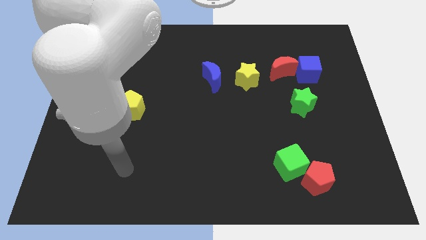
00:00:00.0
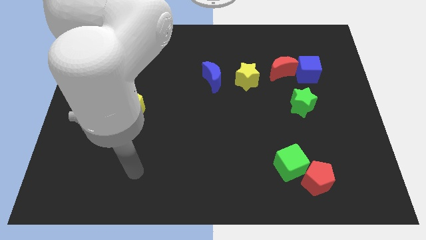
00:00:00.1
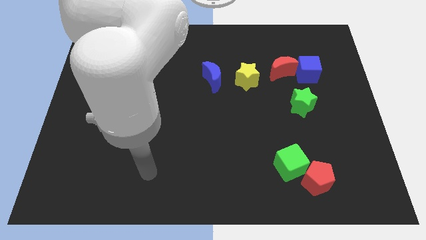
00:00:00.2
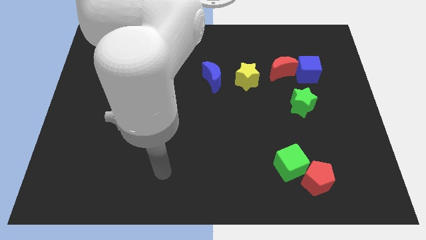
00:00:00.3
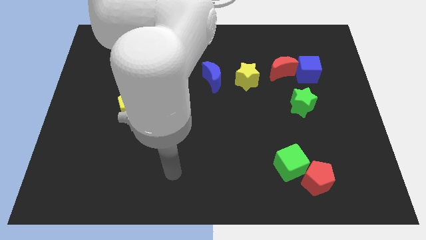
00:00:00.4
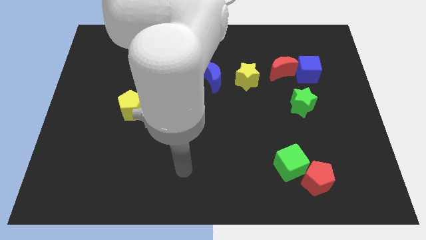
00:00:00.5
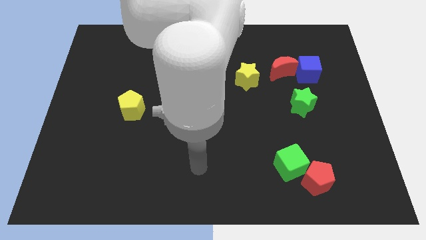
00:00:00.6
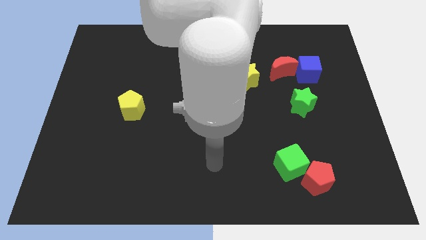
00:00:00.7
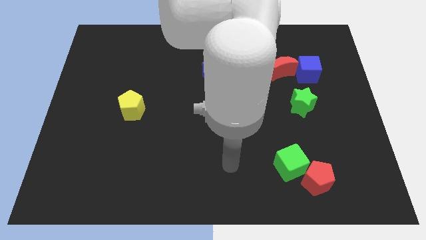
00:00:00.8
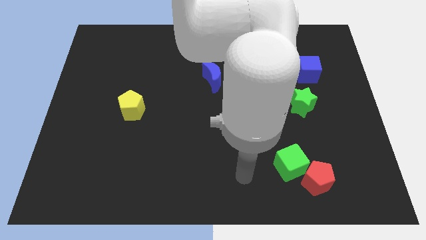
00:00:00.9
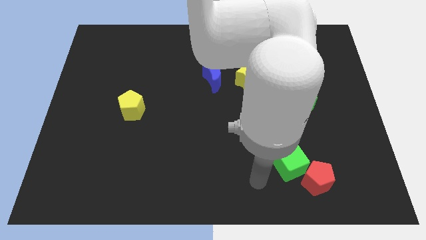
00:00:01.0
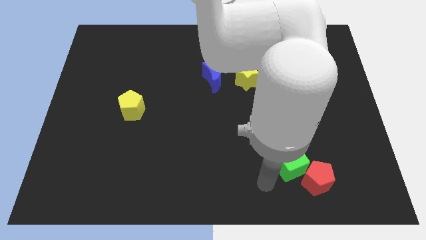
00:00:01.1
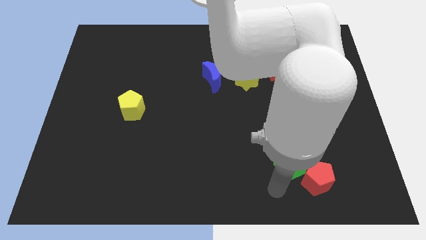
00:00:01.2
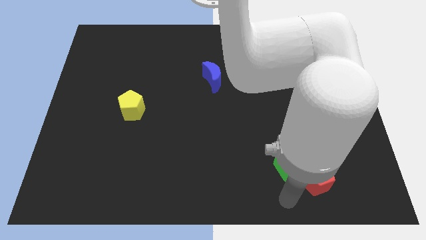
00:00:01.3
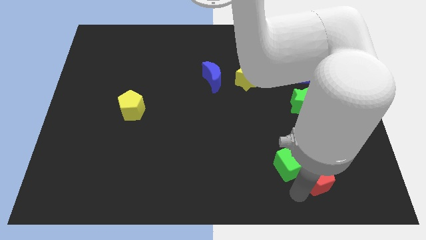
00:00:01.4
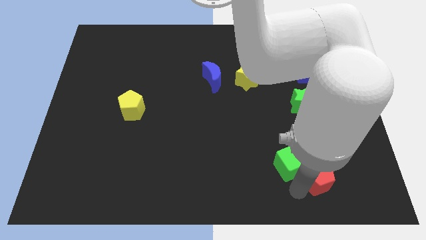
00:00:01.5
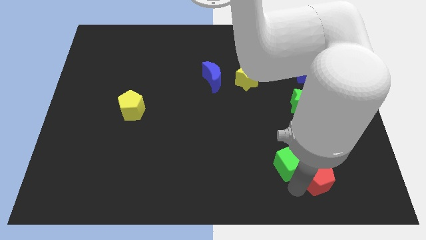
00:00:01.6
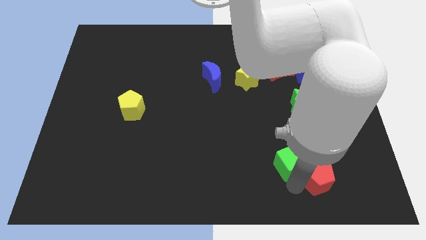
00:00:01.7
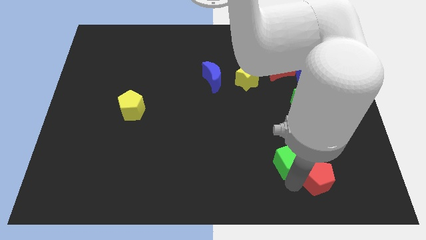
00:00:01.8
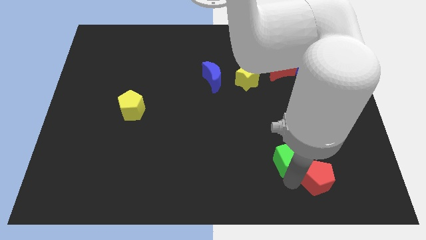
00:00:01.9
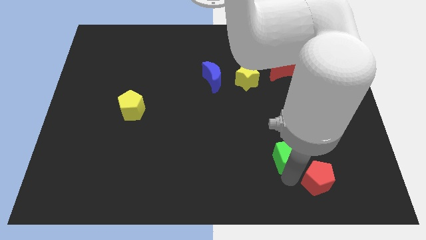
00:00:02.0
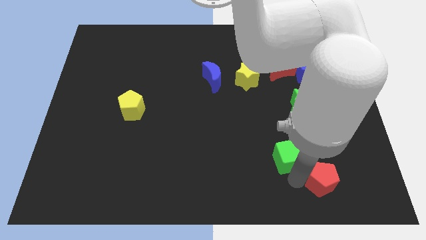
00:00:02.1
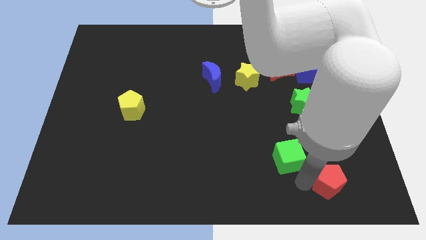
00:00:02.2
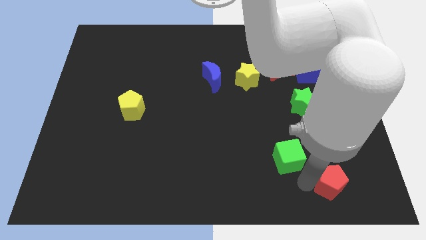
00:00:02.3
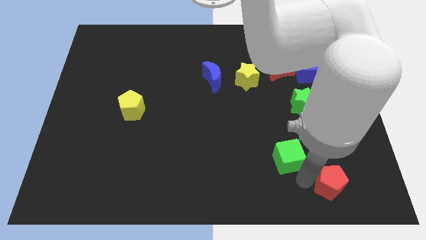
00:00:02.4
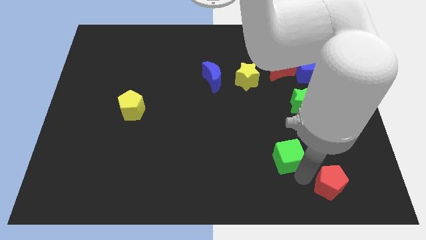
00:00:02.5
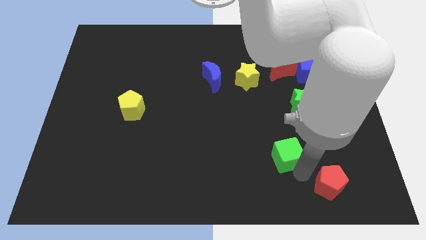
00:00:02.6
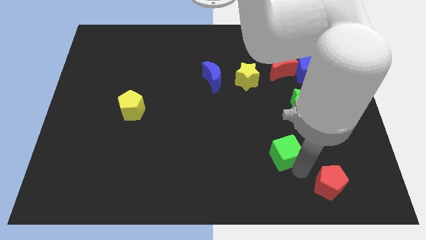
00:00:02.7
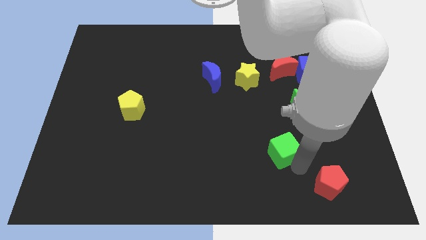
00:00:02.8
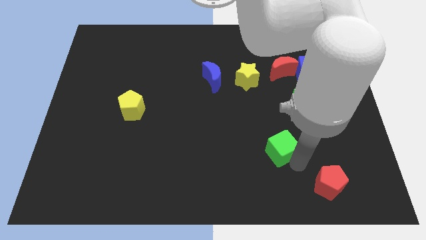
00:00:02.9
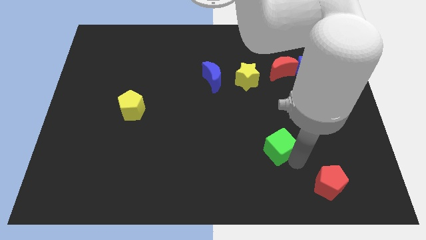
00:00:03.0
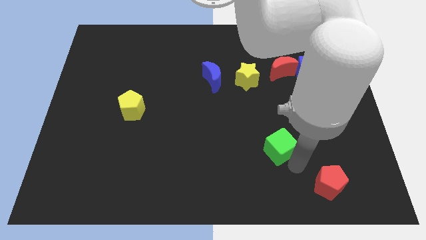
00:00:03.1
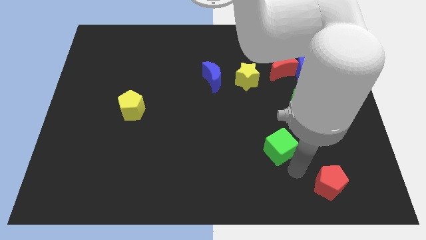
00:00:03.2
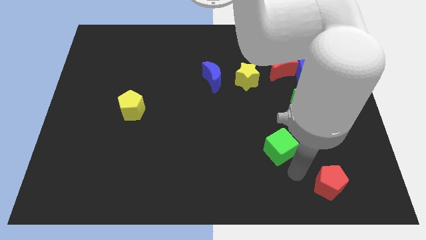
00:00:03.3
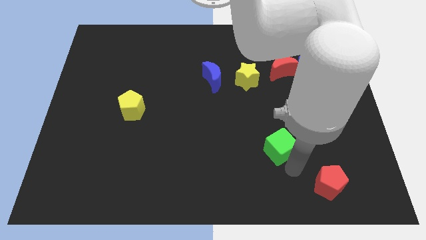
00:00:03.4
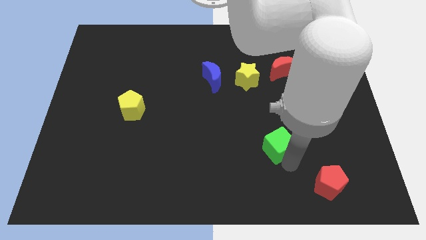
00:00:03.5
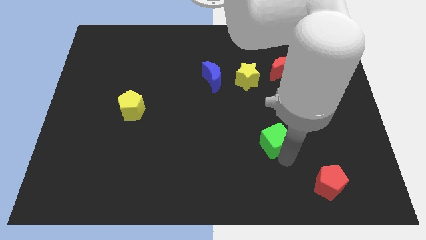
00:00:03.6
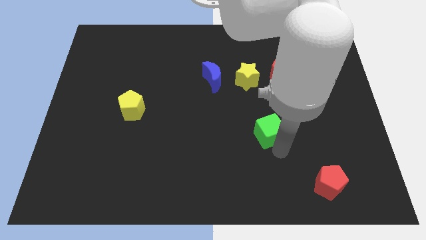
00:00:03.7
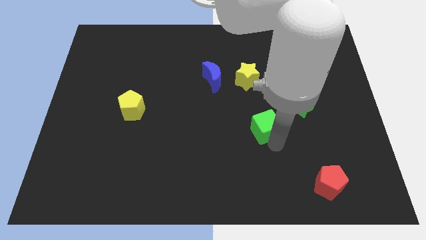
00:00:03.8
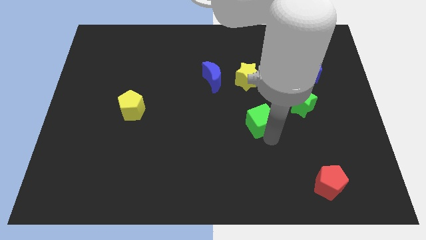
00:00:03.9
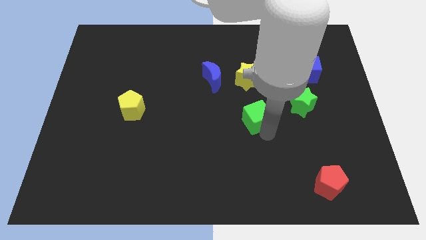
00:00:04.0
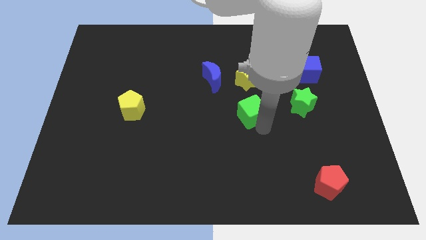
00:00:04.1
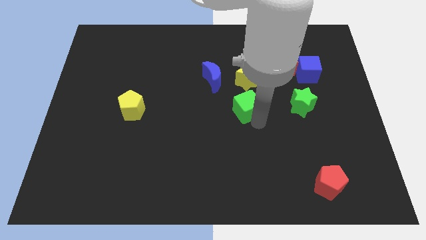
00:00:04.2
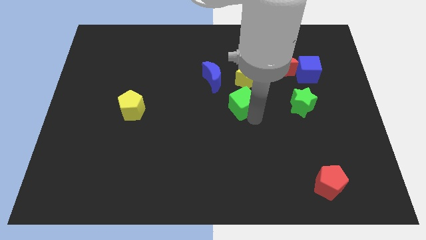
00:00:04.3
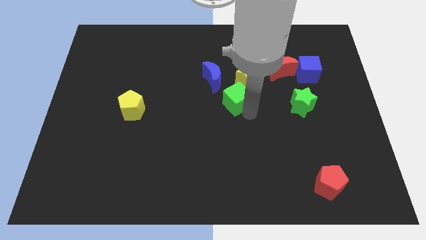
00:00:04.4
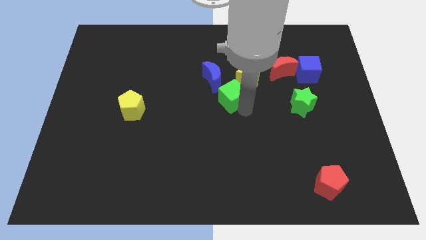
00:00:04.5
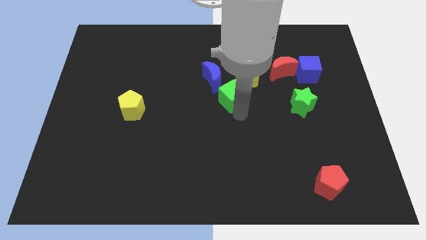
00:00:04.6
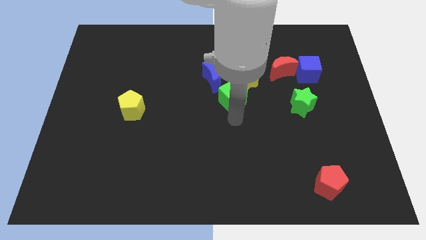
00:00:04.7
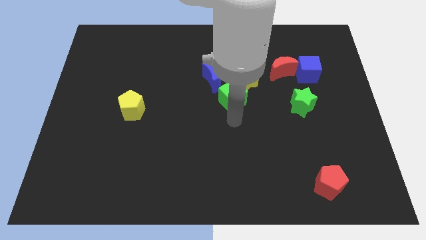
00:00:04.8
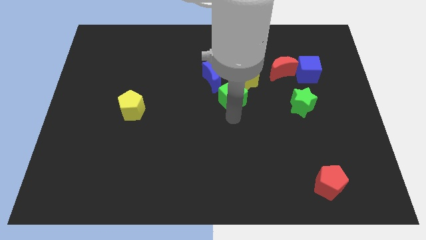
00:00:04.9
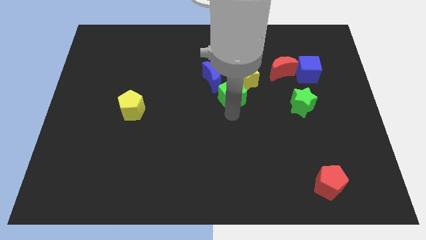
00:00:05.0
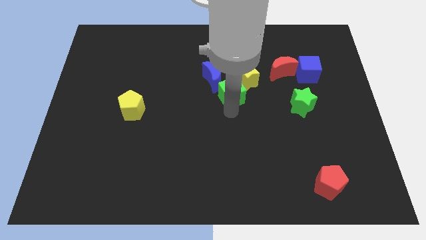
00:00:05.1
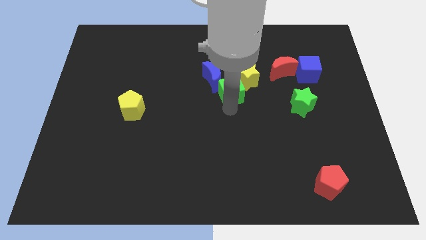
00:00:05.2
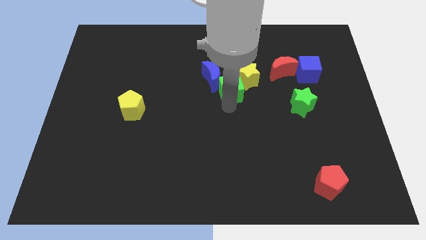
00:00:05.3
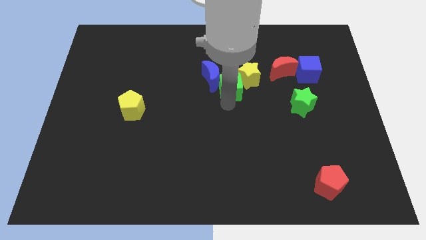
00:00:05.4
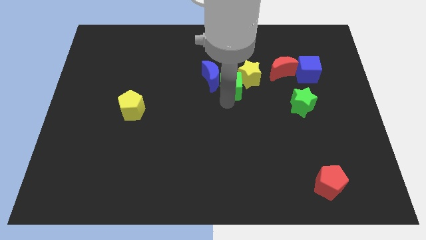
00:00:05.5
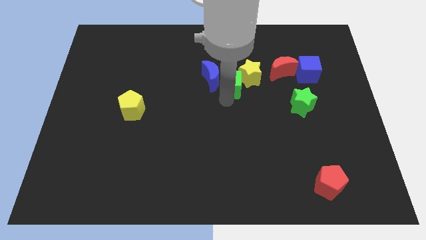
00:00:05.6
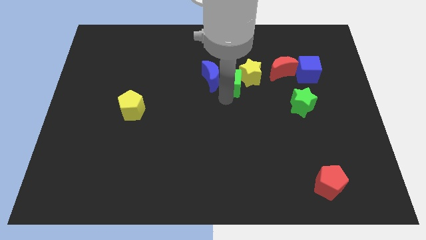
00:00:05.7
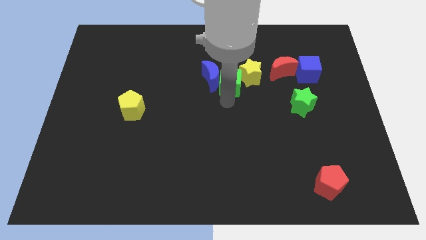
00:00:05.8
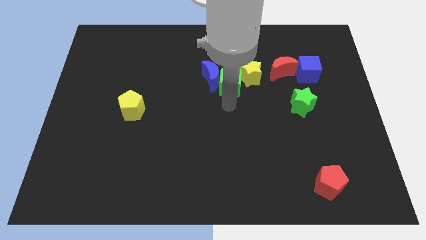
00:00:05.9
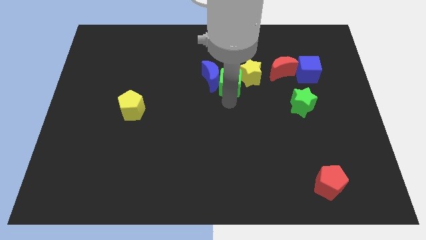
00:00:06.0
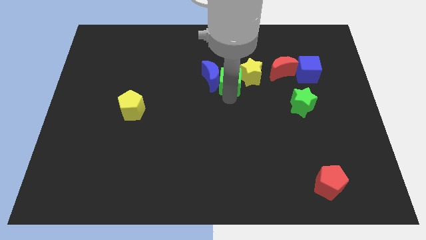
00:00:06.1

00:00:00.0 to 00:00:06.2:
slide the green cube to the left of the red moon

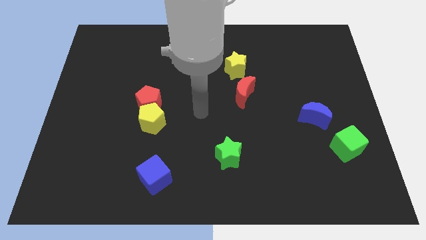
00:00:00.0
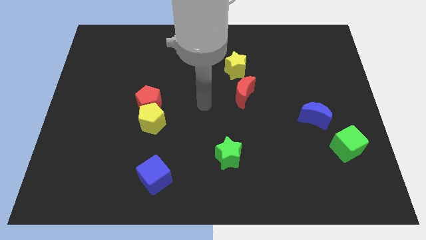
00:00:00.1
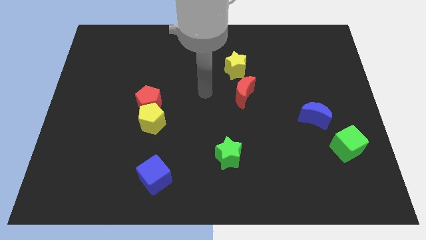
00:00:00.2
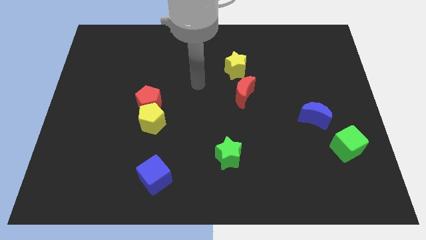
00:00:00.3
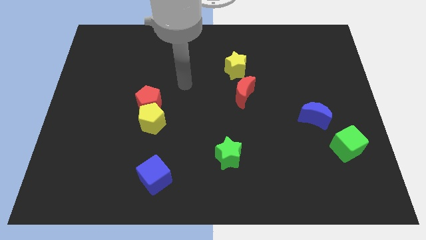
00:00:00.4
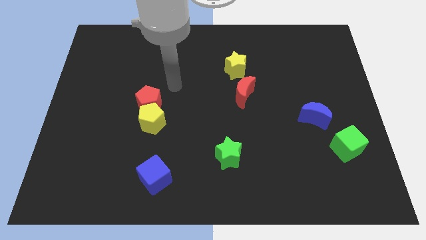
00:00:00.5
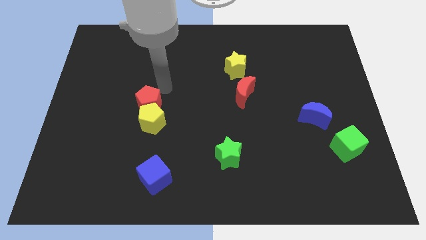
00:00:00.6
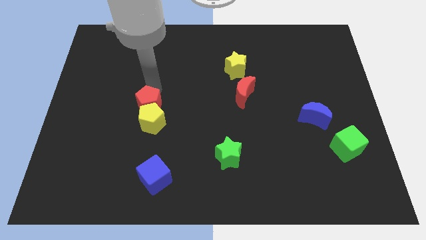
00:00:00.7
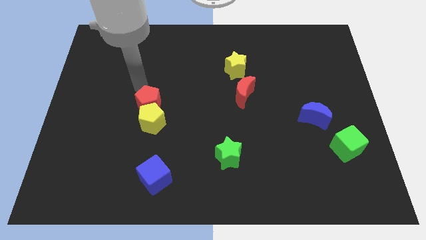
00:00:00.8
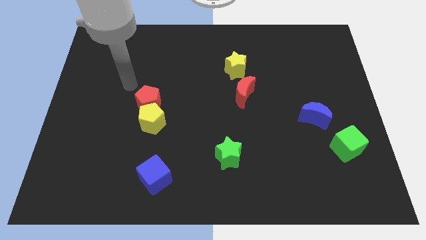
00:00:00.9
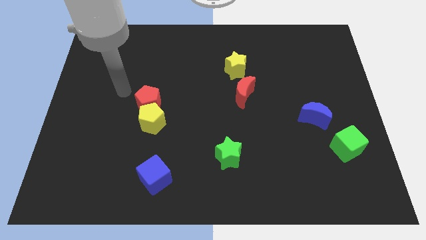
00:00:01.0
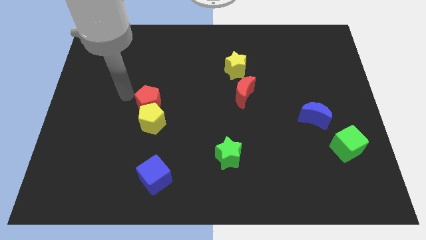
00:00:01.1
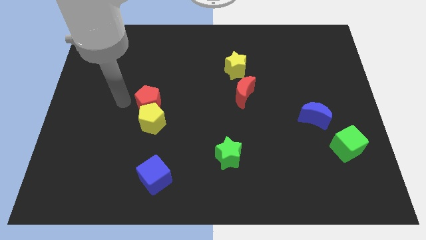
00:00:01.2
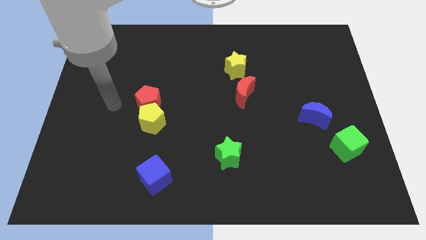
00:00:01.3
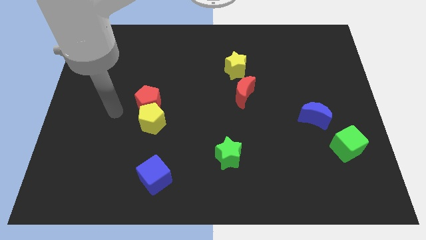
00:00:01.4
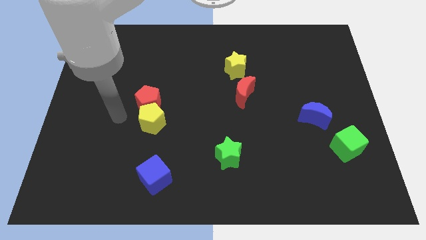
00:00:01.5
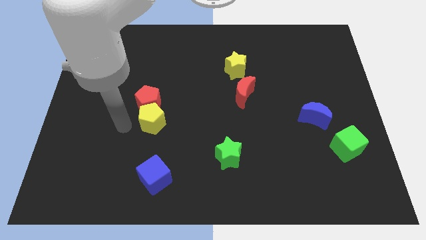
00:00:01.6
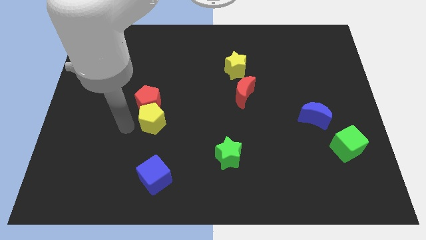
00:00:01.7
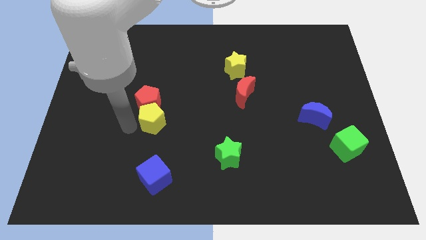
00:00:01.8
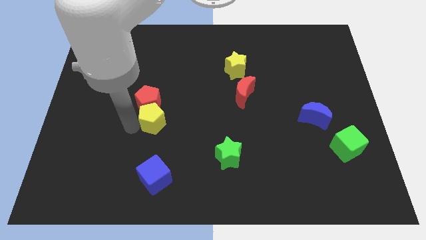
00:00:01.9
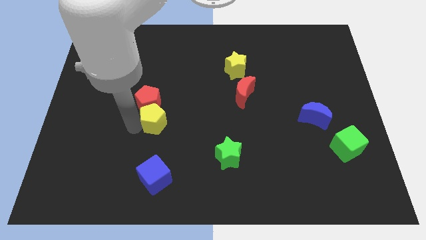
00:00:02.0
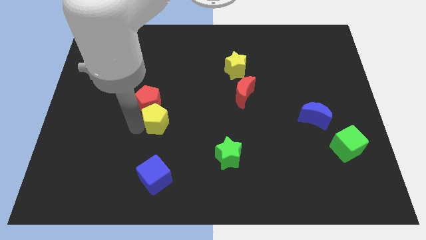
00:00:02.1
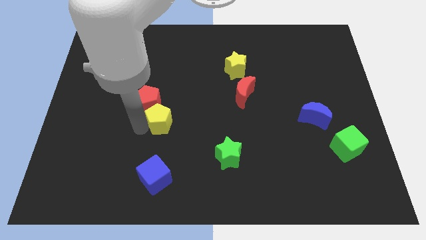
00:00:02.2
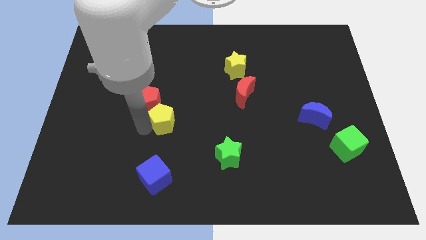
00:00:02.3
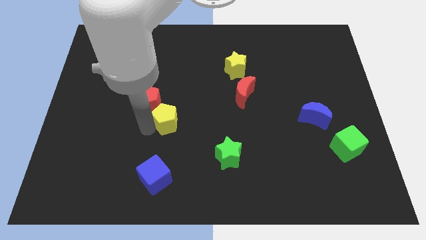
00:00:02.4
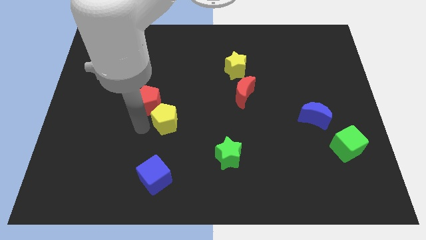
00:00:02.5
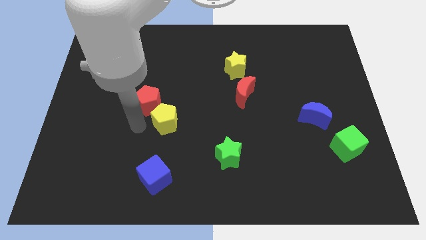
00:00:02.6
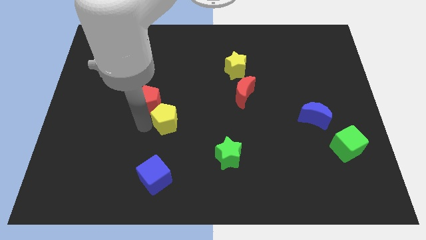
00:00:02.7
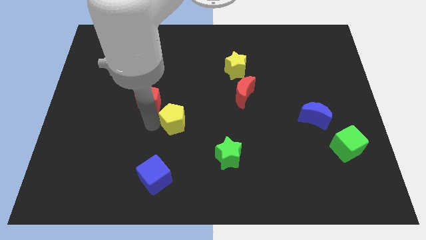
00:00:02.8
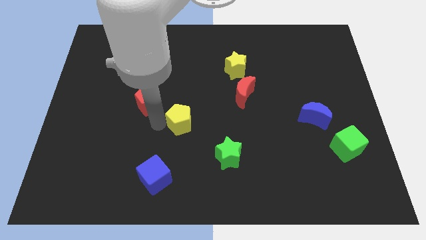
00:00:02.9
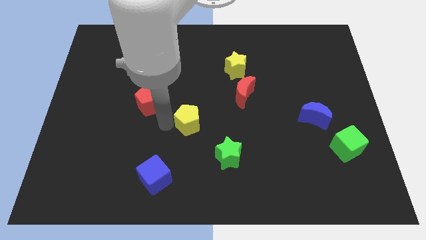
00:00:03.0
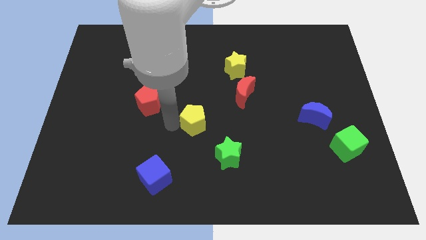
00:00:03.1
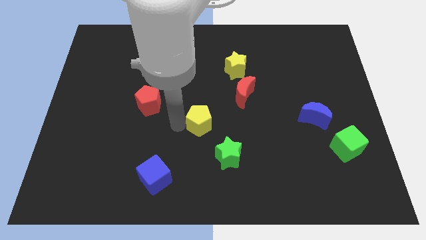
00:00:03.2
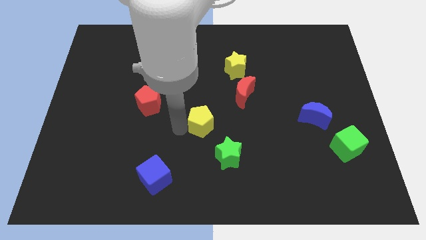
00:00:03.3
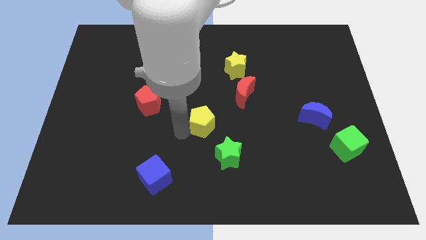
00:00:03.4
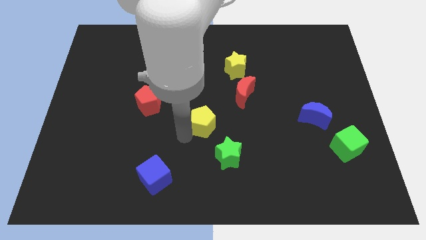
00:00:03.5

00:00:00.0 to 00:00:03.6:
push the yellow pentagon to the bottom left of the red moon
